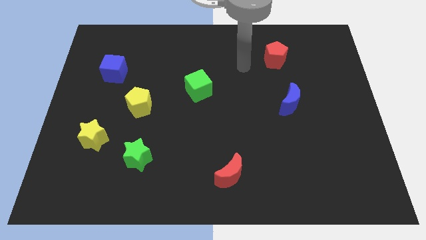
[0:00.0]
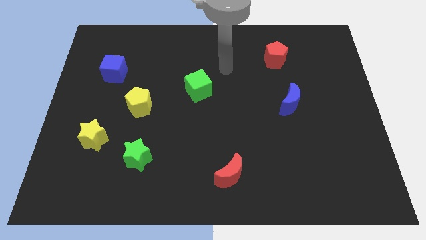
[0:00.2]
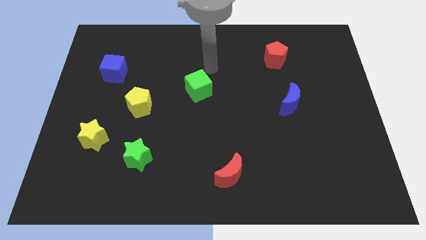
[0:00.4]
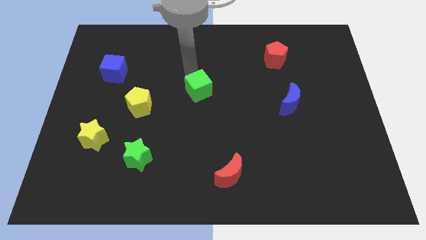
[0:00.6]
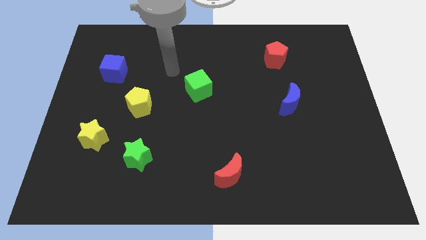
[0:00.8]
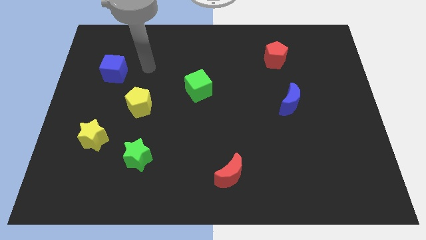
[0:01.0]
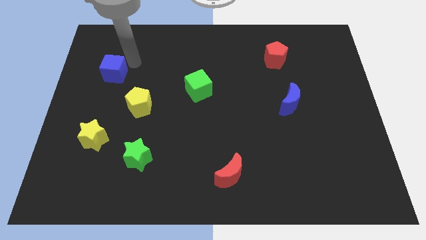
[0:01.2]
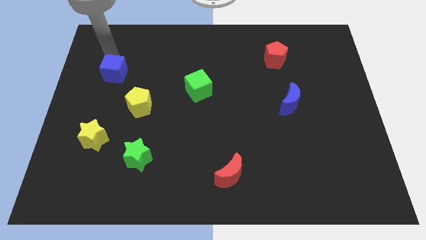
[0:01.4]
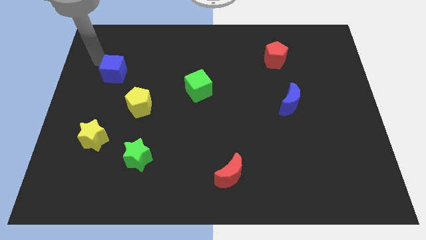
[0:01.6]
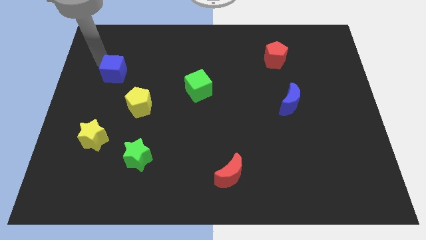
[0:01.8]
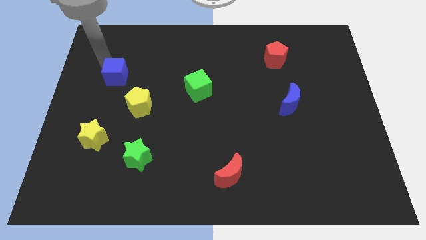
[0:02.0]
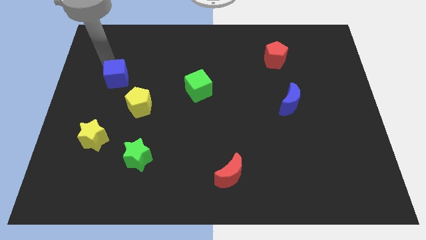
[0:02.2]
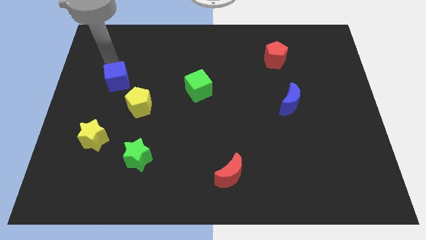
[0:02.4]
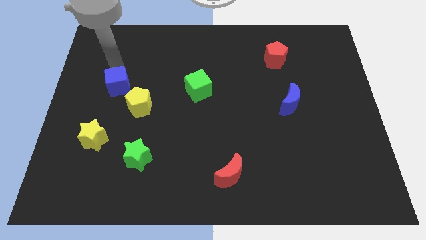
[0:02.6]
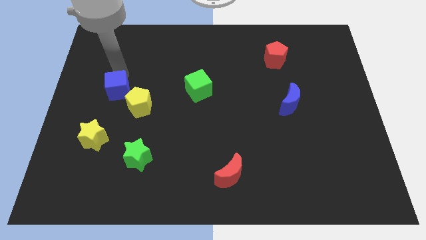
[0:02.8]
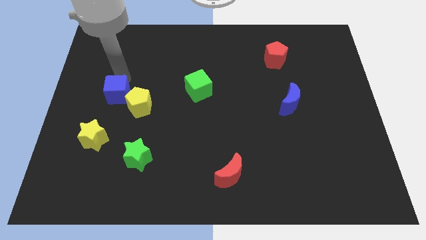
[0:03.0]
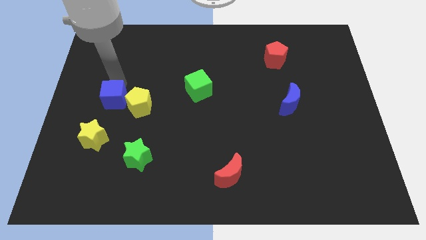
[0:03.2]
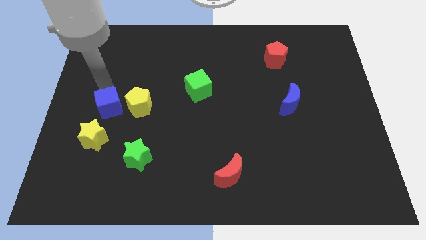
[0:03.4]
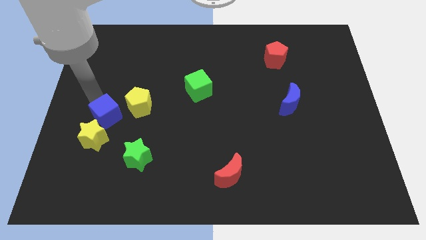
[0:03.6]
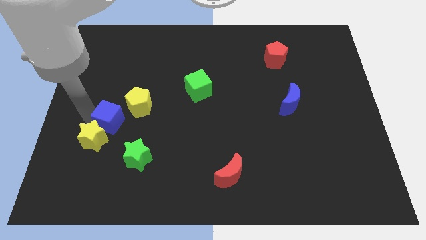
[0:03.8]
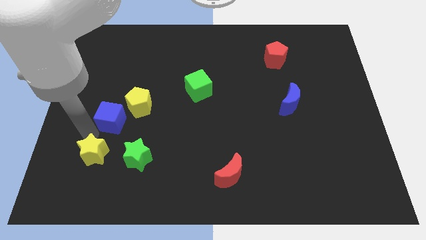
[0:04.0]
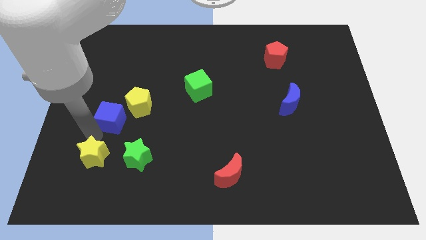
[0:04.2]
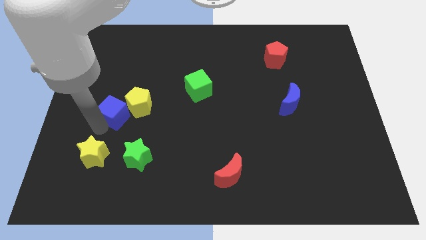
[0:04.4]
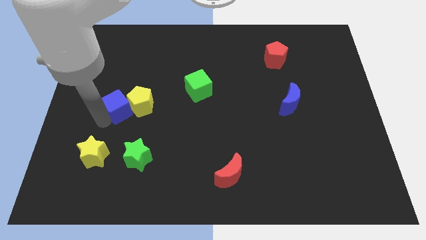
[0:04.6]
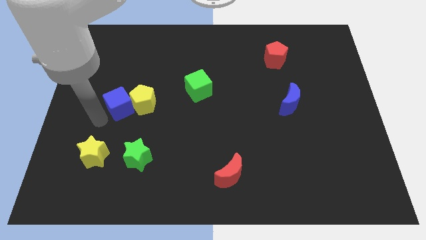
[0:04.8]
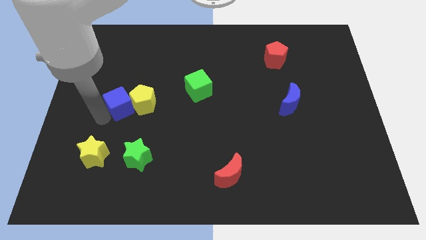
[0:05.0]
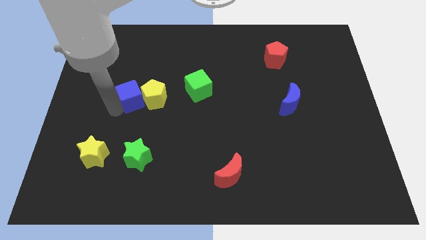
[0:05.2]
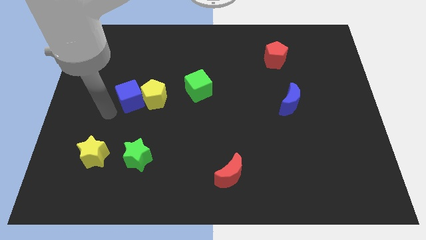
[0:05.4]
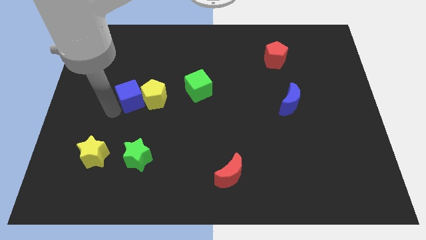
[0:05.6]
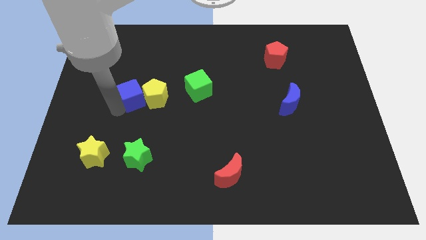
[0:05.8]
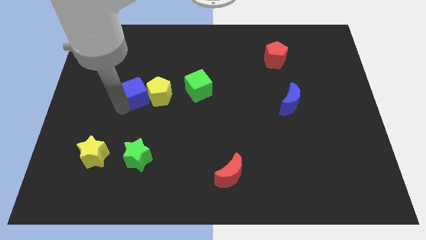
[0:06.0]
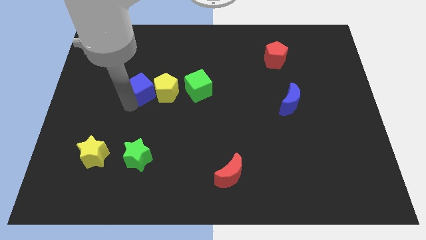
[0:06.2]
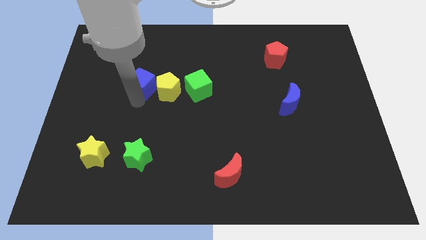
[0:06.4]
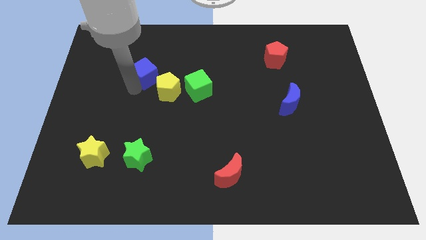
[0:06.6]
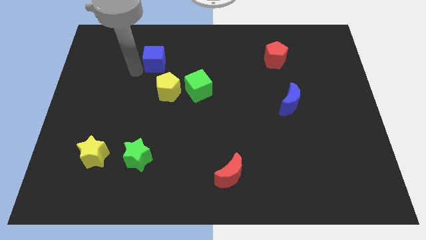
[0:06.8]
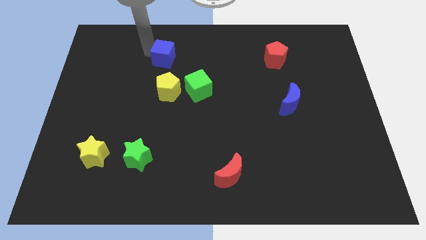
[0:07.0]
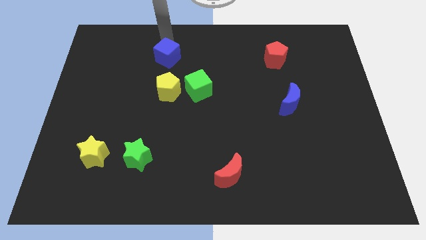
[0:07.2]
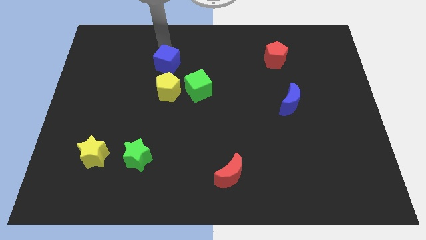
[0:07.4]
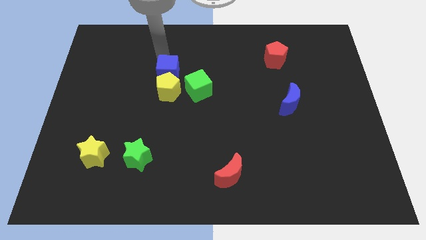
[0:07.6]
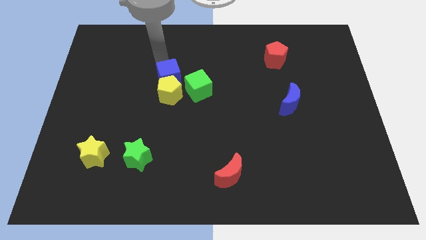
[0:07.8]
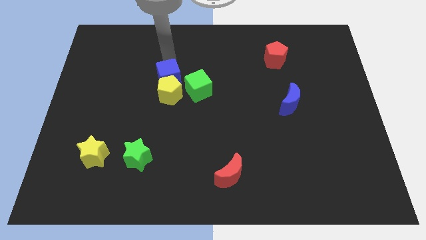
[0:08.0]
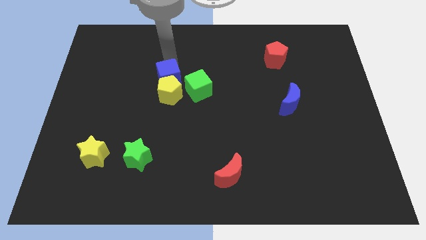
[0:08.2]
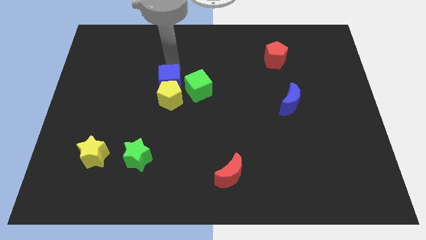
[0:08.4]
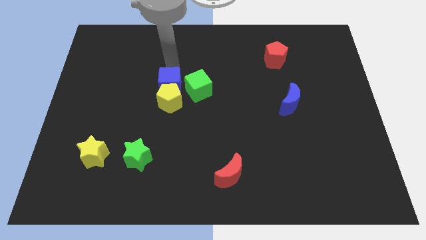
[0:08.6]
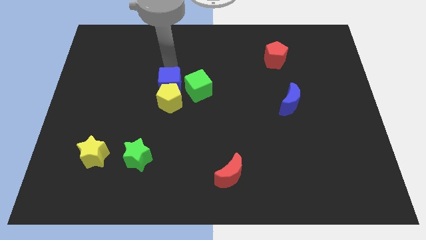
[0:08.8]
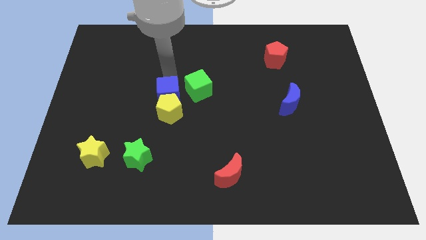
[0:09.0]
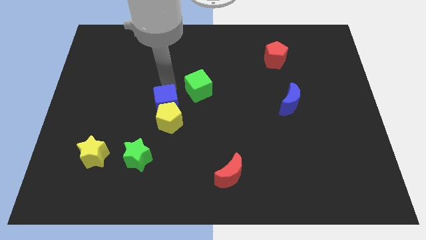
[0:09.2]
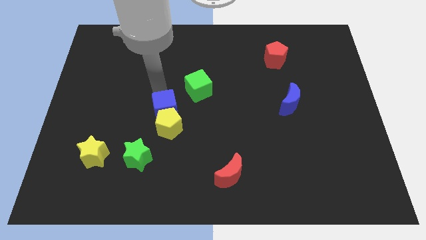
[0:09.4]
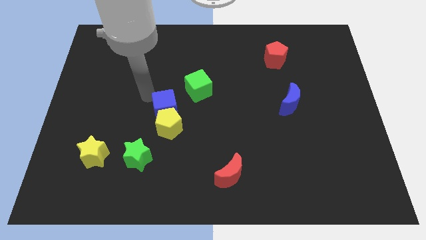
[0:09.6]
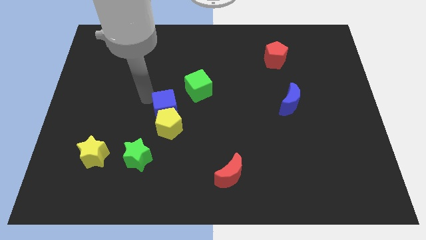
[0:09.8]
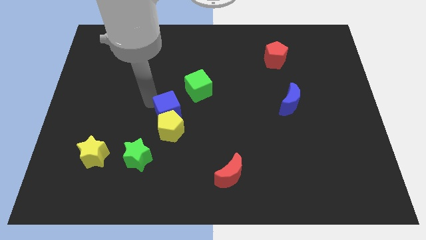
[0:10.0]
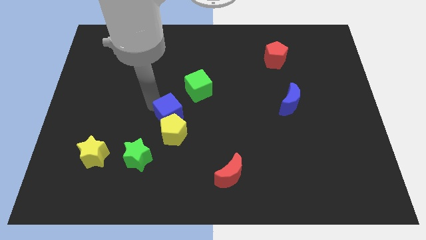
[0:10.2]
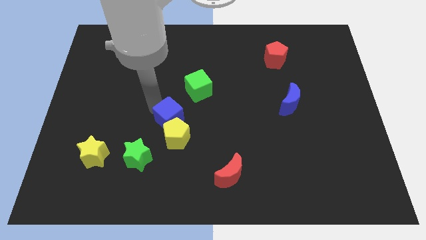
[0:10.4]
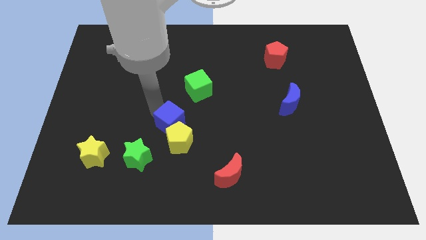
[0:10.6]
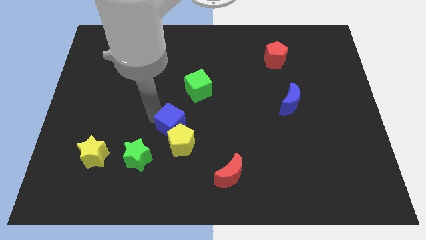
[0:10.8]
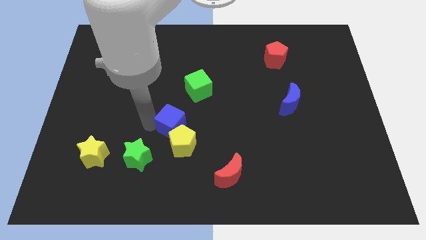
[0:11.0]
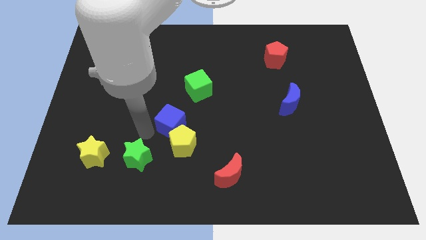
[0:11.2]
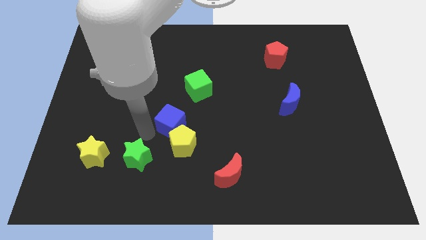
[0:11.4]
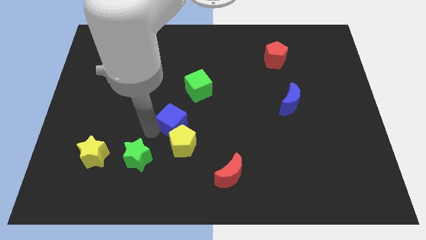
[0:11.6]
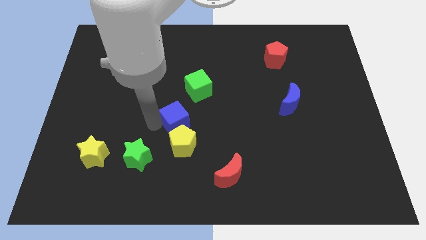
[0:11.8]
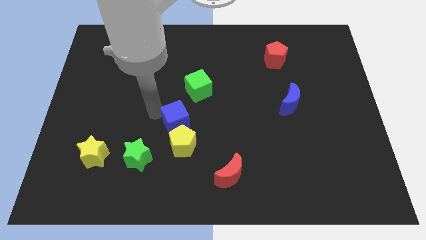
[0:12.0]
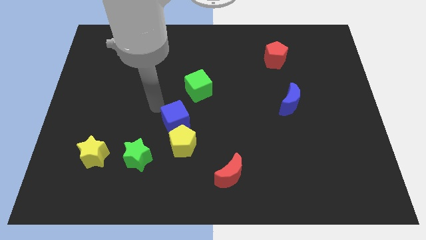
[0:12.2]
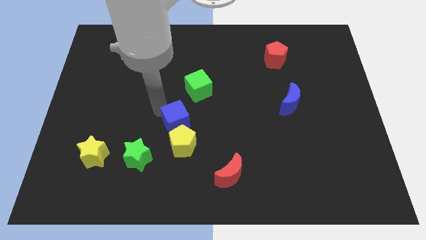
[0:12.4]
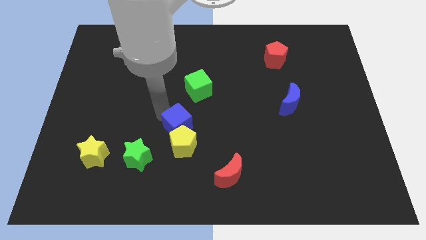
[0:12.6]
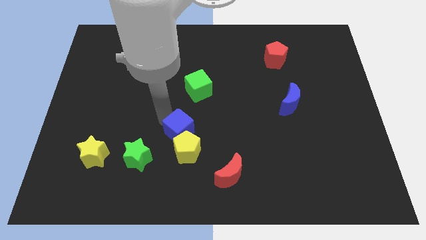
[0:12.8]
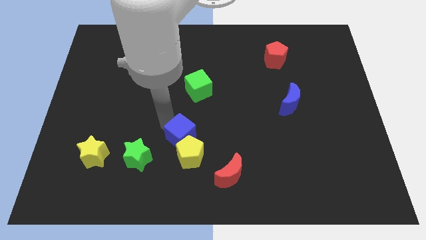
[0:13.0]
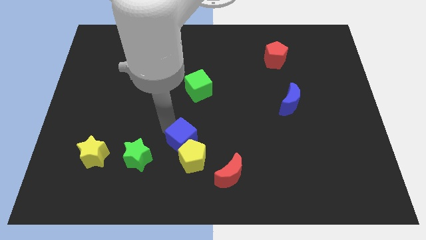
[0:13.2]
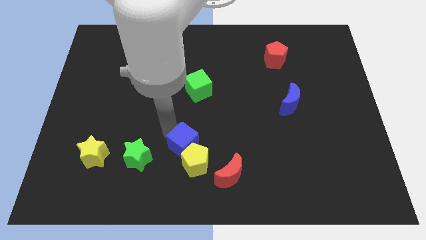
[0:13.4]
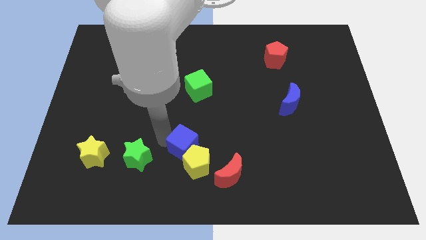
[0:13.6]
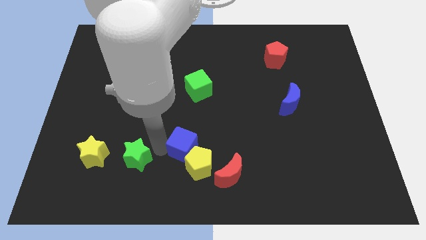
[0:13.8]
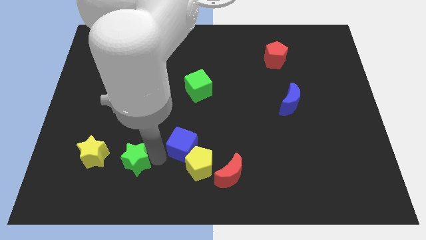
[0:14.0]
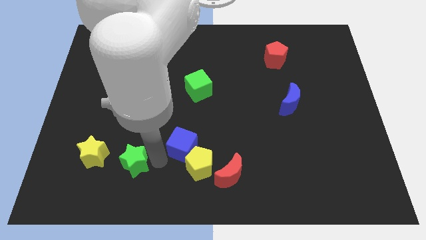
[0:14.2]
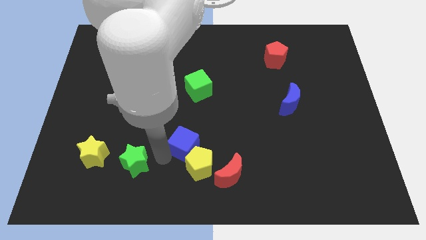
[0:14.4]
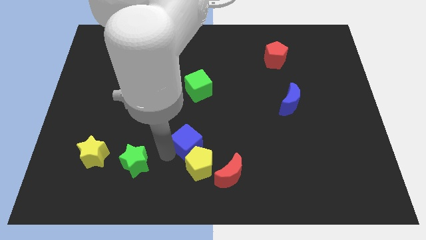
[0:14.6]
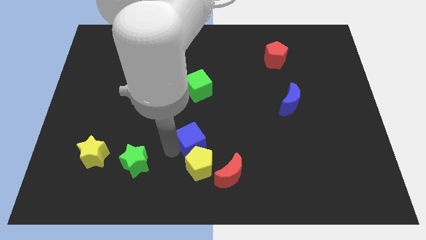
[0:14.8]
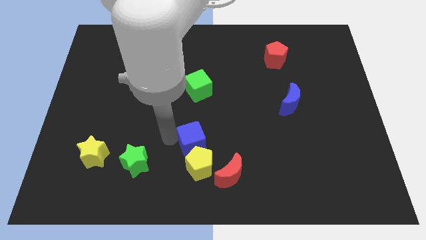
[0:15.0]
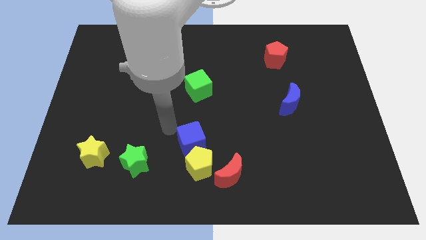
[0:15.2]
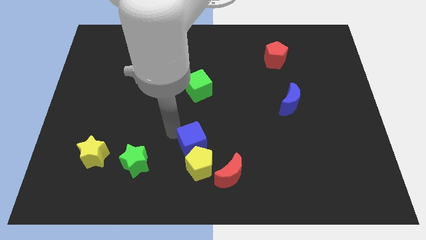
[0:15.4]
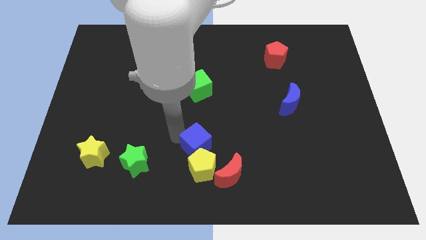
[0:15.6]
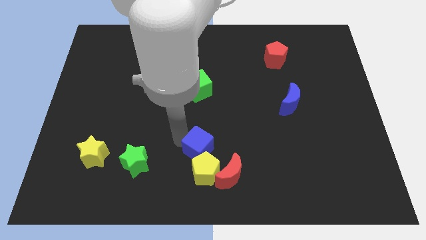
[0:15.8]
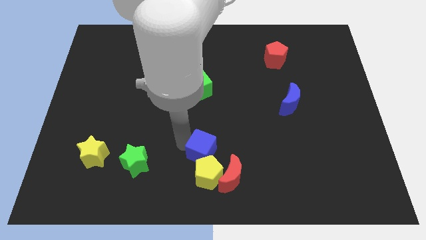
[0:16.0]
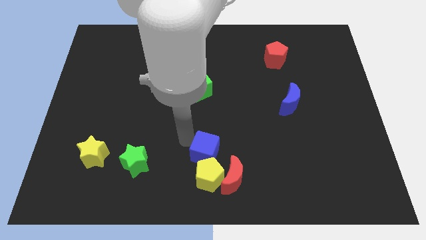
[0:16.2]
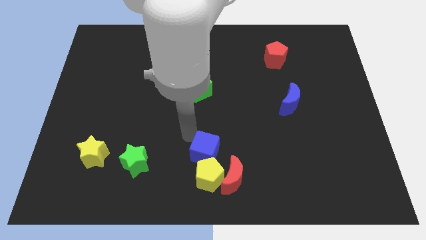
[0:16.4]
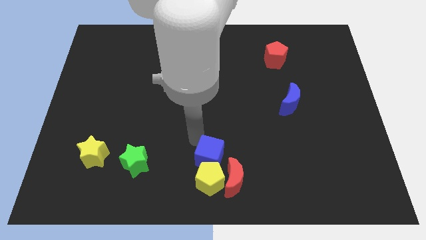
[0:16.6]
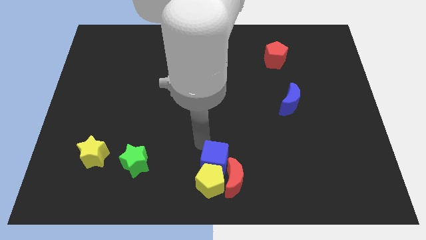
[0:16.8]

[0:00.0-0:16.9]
move the blue cube close to the red moon
